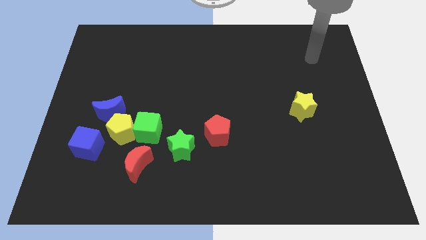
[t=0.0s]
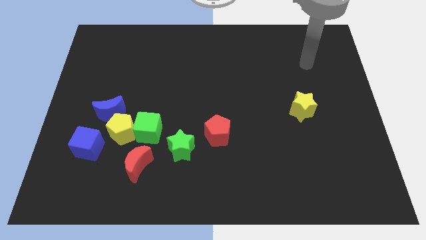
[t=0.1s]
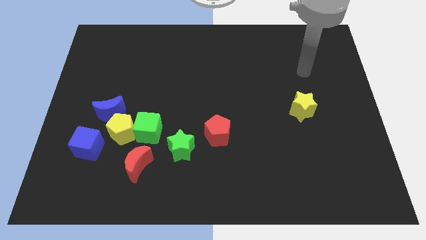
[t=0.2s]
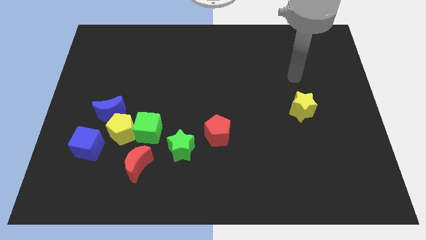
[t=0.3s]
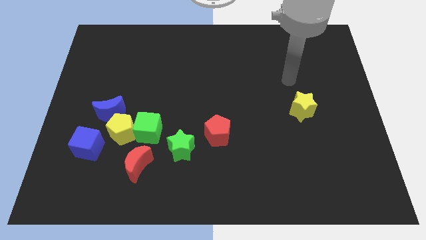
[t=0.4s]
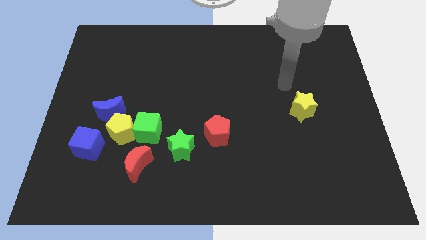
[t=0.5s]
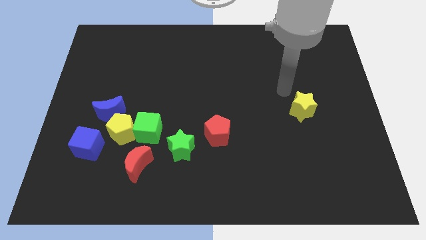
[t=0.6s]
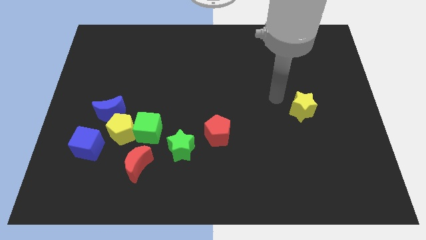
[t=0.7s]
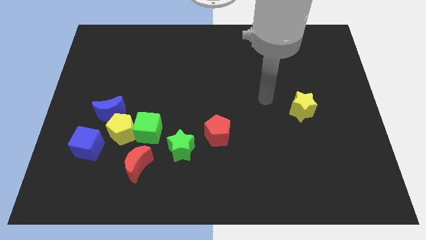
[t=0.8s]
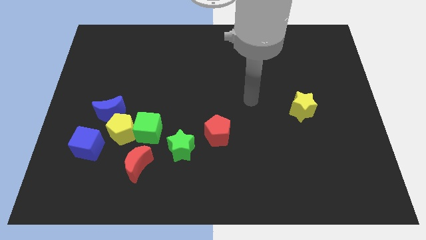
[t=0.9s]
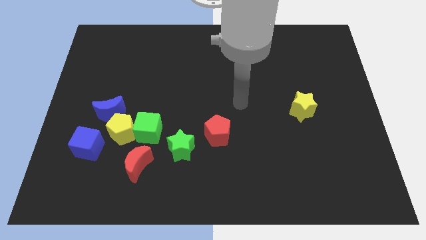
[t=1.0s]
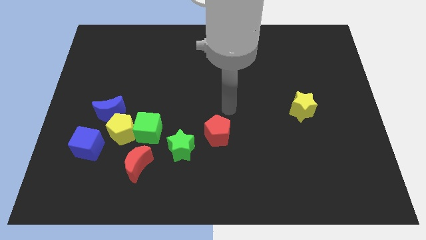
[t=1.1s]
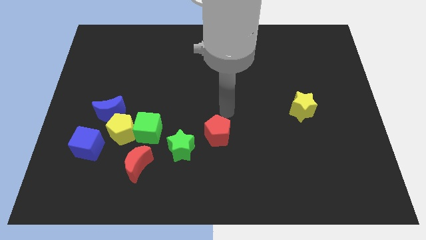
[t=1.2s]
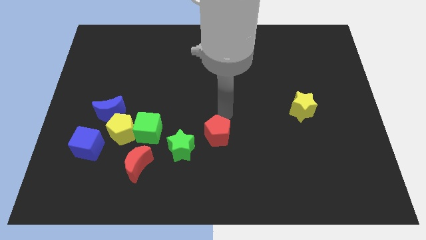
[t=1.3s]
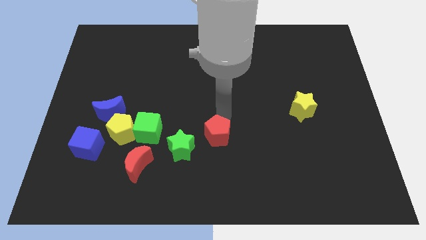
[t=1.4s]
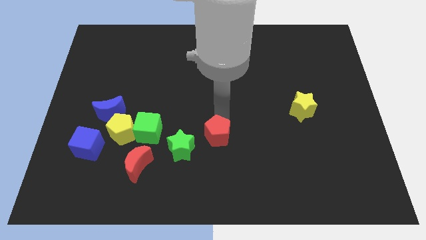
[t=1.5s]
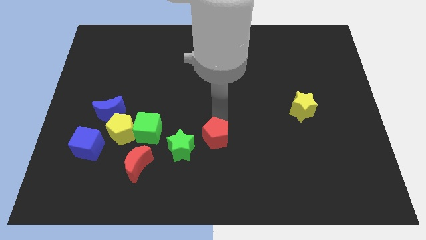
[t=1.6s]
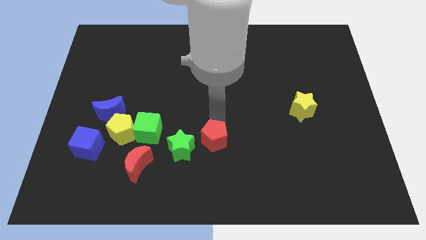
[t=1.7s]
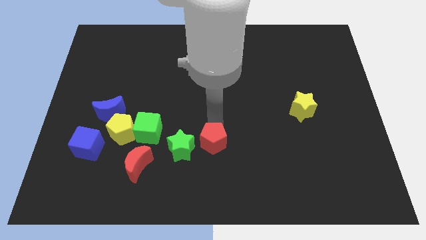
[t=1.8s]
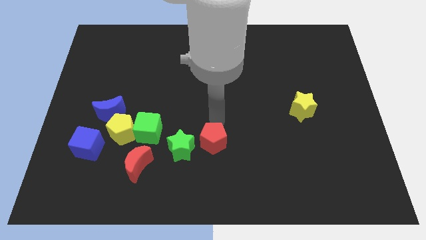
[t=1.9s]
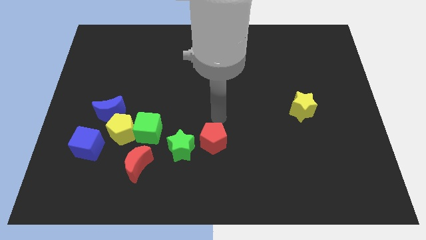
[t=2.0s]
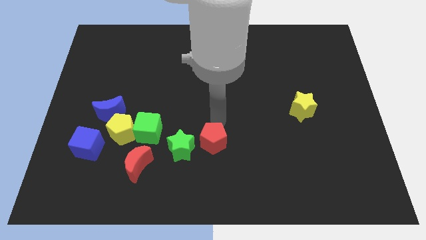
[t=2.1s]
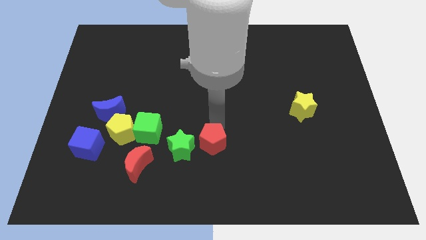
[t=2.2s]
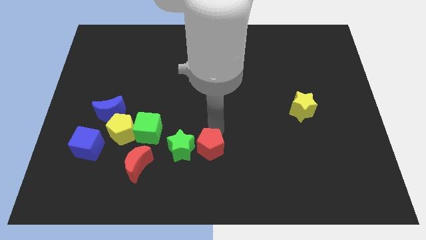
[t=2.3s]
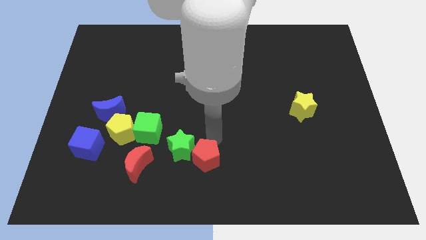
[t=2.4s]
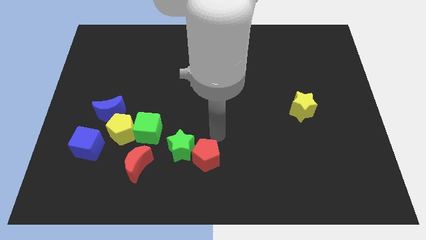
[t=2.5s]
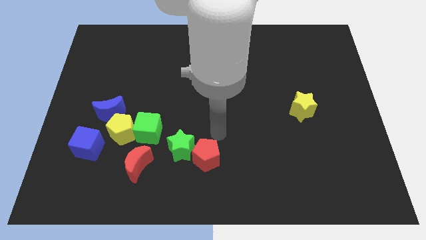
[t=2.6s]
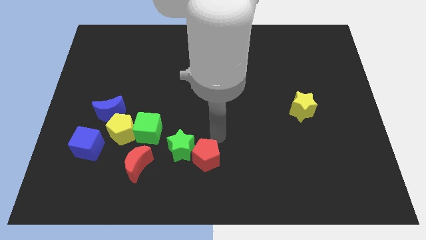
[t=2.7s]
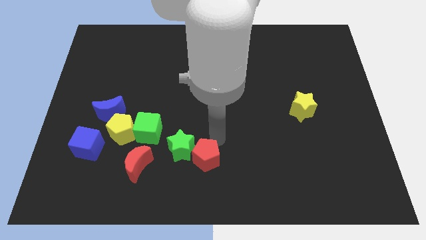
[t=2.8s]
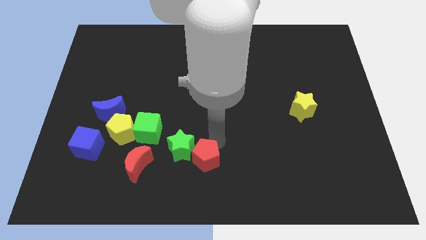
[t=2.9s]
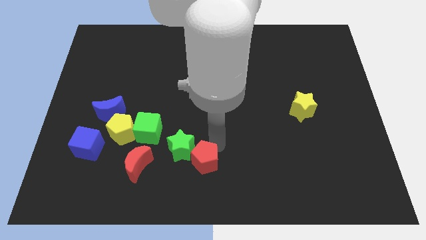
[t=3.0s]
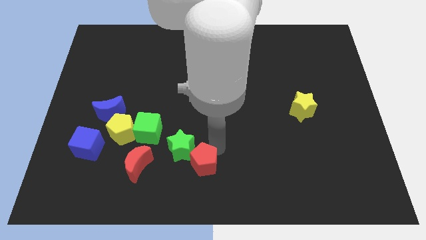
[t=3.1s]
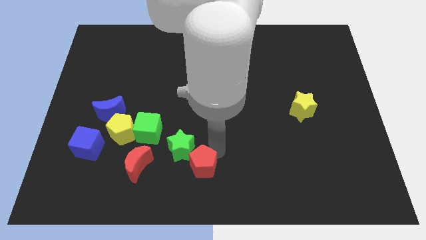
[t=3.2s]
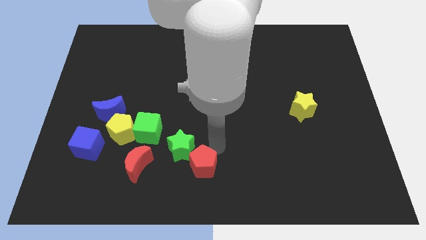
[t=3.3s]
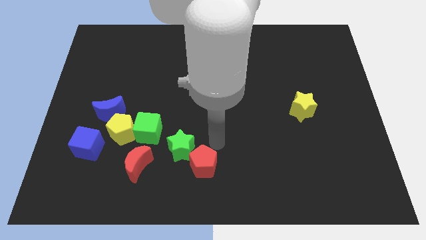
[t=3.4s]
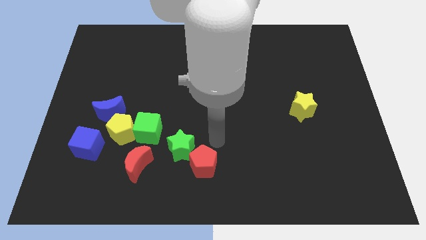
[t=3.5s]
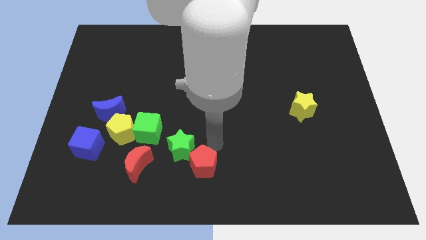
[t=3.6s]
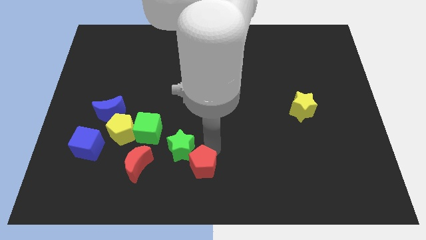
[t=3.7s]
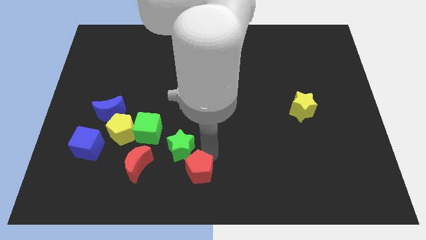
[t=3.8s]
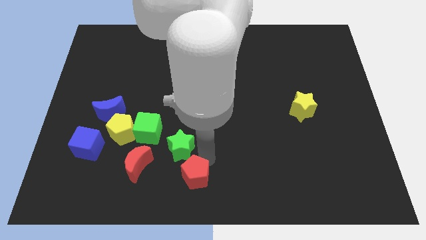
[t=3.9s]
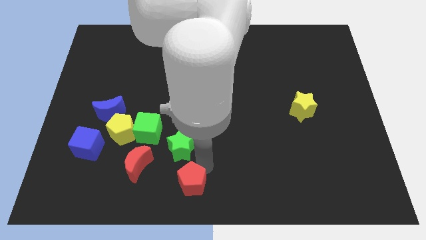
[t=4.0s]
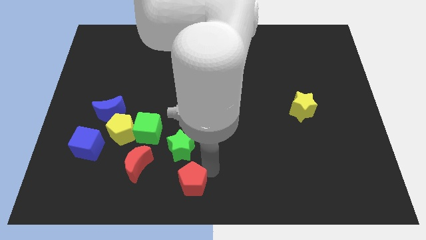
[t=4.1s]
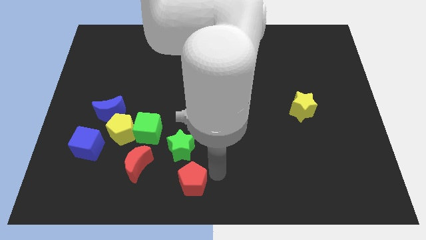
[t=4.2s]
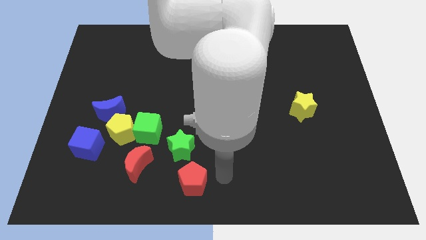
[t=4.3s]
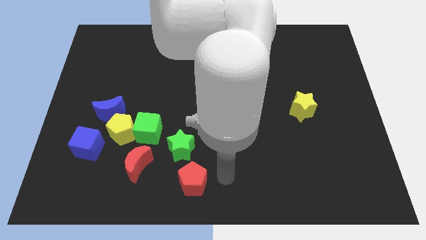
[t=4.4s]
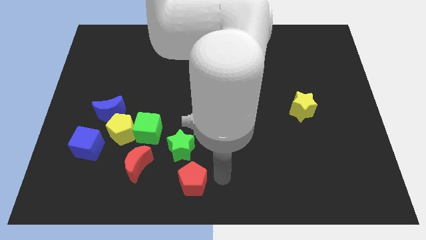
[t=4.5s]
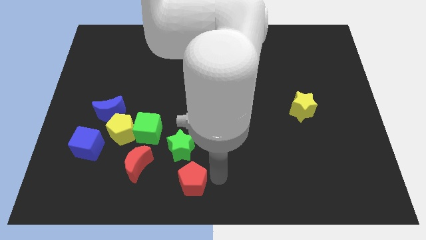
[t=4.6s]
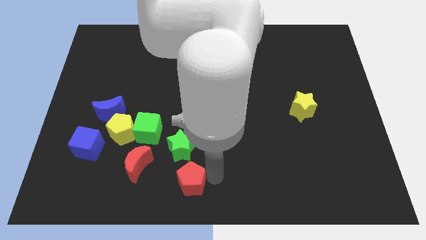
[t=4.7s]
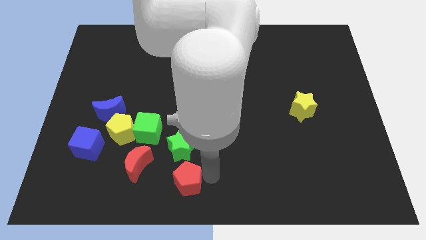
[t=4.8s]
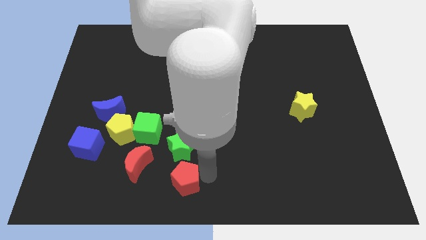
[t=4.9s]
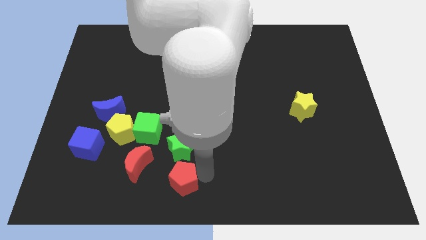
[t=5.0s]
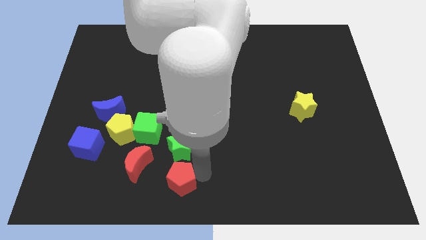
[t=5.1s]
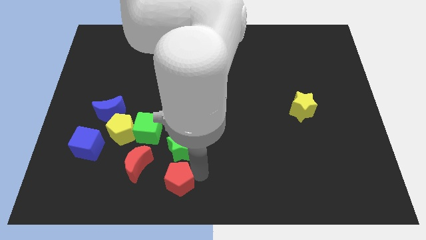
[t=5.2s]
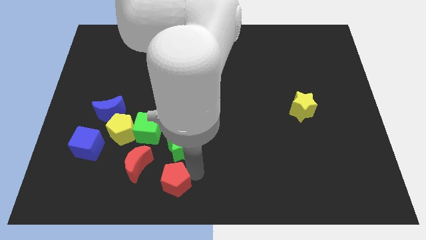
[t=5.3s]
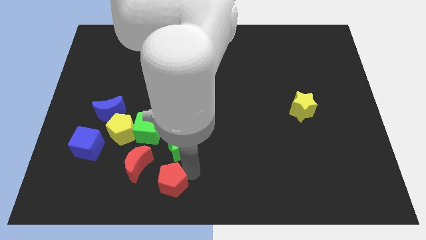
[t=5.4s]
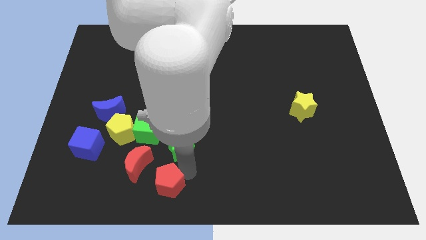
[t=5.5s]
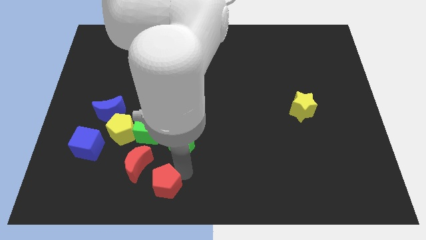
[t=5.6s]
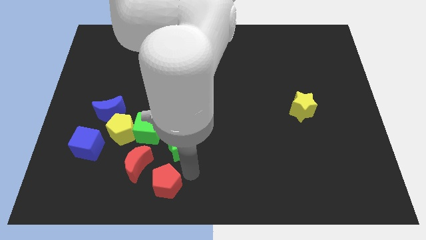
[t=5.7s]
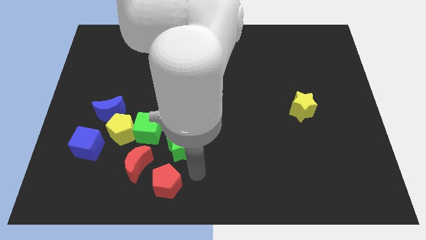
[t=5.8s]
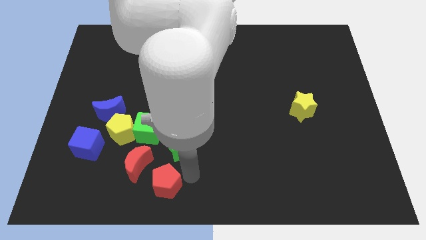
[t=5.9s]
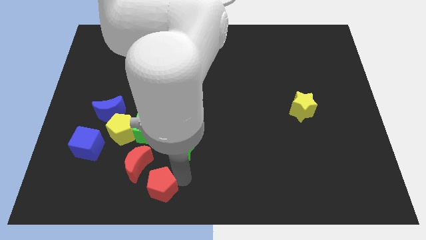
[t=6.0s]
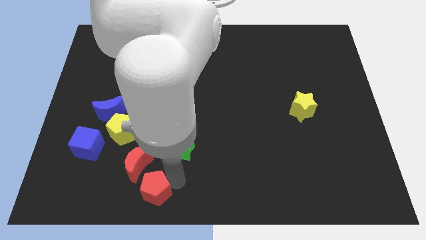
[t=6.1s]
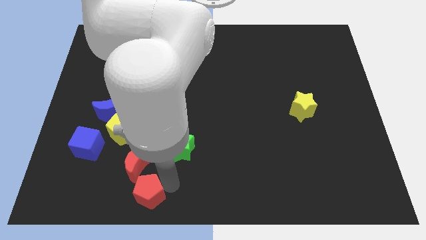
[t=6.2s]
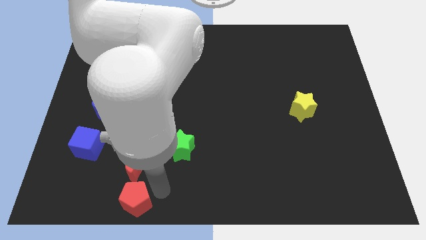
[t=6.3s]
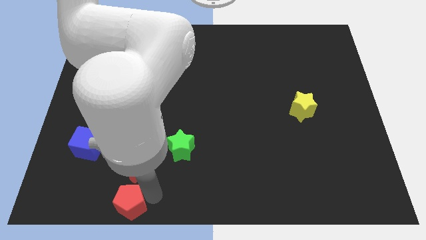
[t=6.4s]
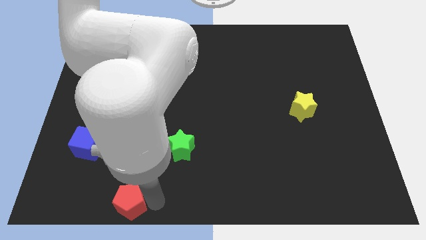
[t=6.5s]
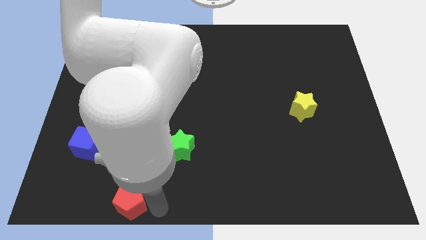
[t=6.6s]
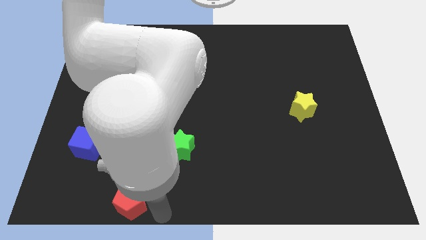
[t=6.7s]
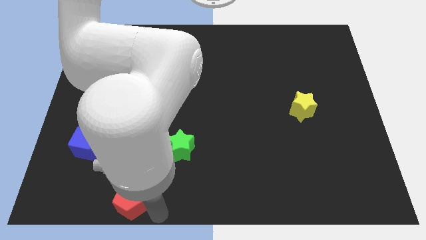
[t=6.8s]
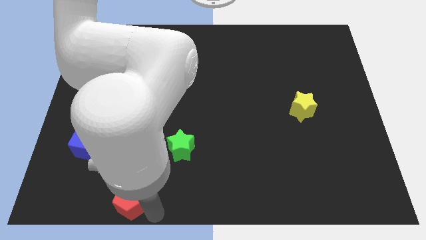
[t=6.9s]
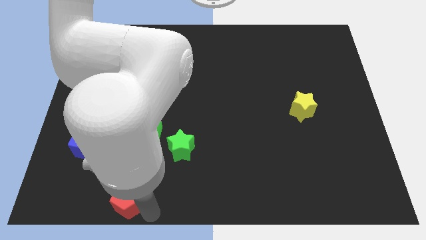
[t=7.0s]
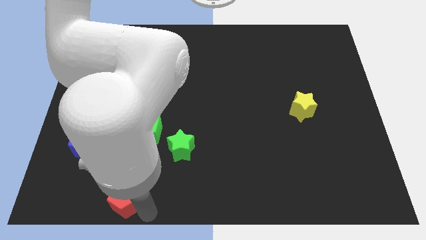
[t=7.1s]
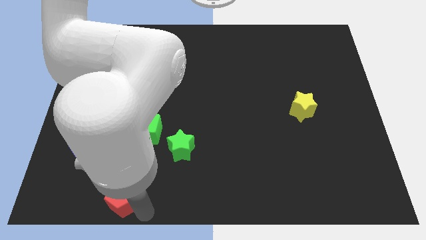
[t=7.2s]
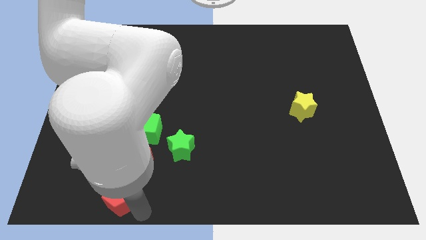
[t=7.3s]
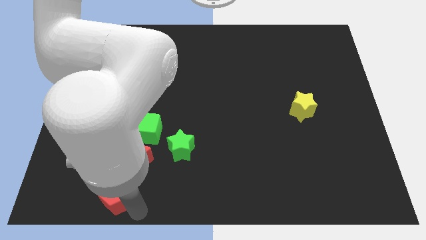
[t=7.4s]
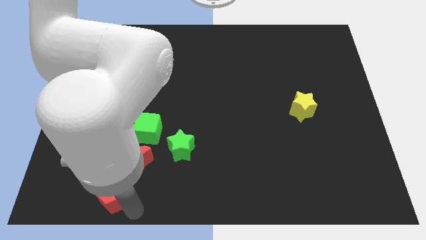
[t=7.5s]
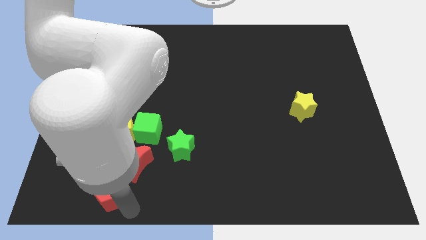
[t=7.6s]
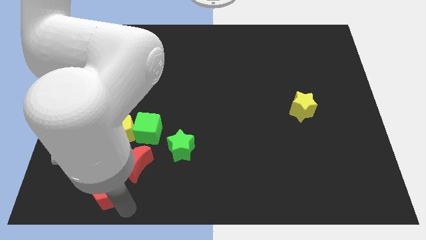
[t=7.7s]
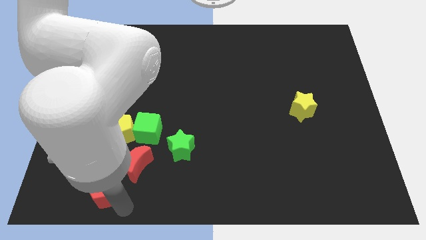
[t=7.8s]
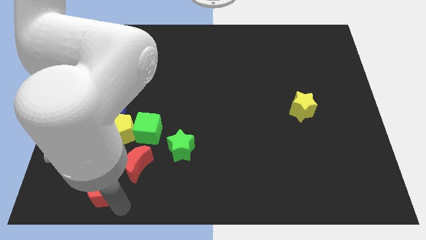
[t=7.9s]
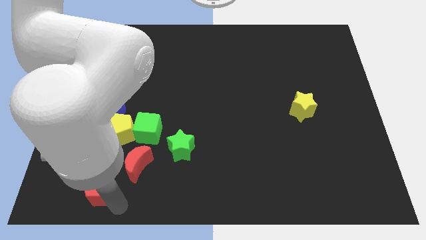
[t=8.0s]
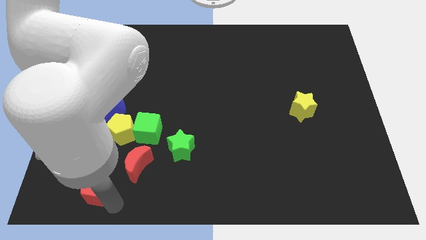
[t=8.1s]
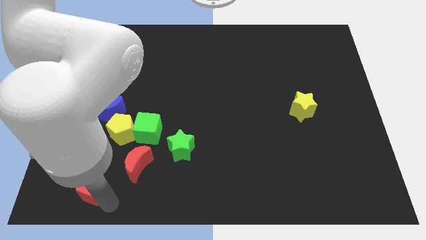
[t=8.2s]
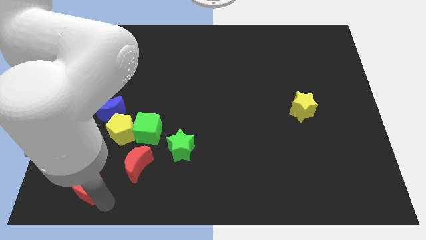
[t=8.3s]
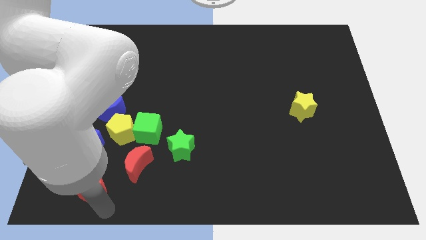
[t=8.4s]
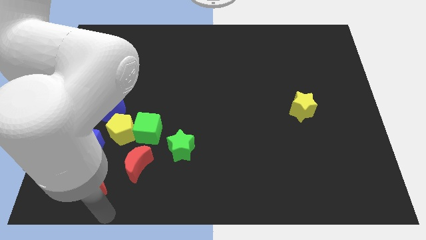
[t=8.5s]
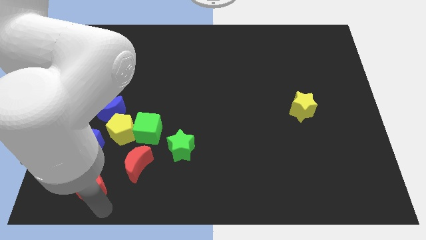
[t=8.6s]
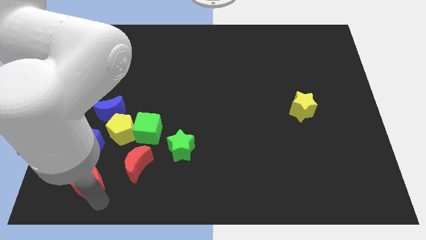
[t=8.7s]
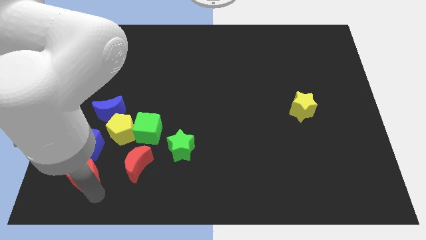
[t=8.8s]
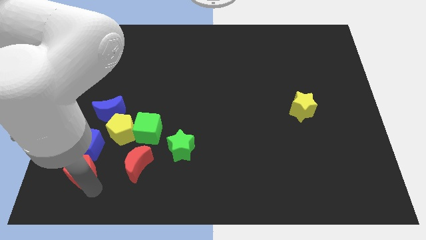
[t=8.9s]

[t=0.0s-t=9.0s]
push the red pentagon to the bottom left side of the yellow pentagon
